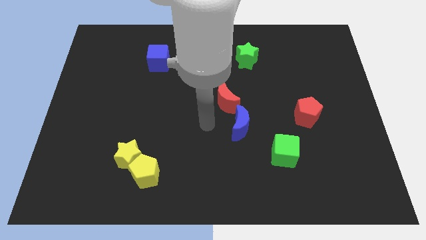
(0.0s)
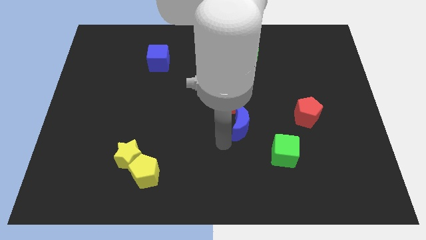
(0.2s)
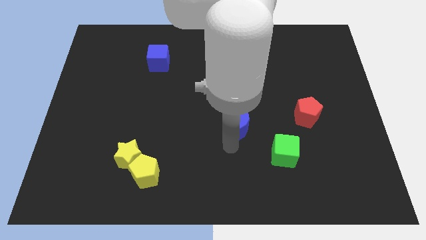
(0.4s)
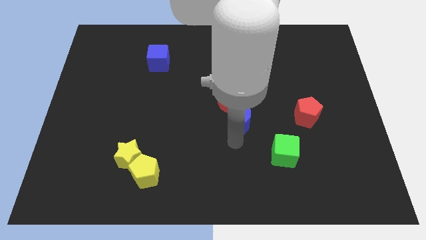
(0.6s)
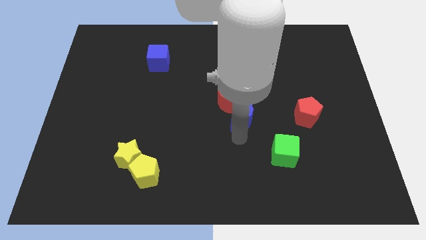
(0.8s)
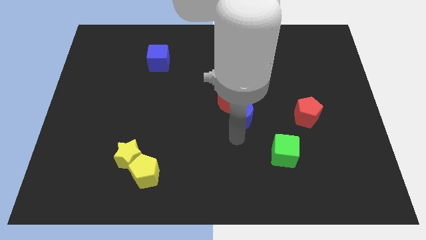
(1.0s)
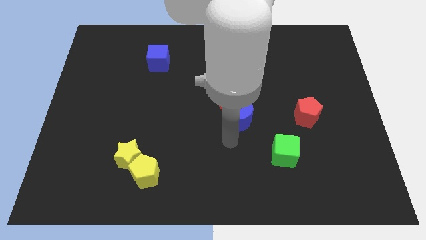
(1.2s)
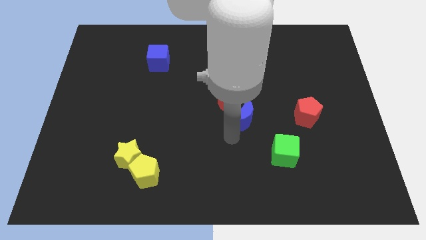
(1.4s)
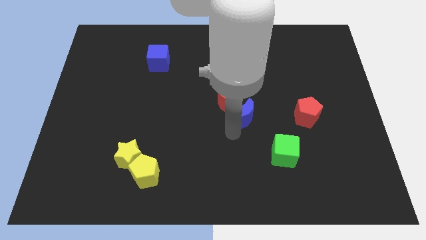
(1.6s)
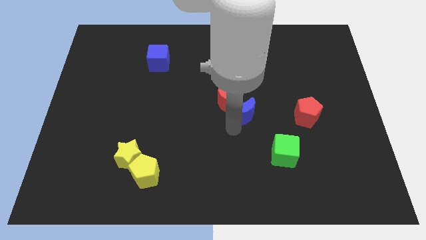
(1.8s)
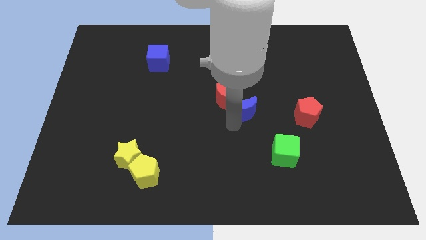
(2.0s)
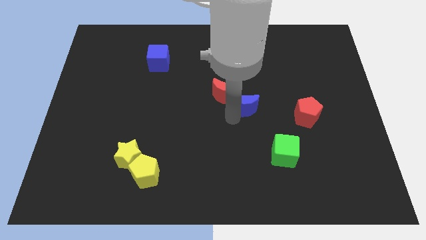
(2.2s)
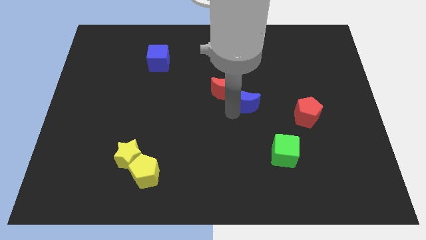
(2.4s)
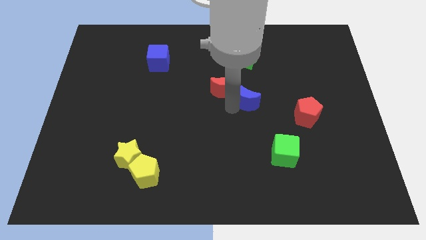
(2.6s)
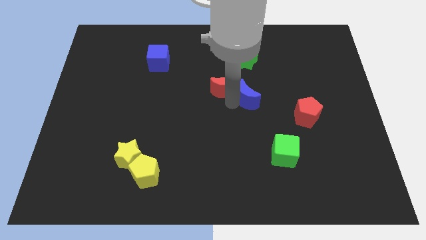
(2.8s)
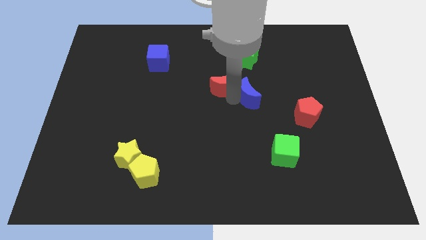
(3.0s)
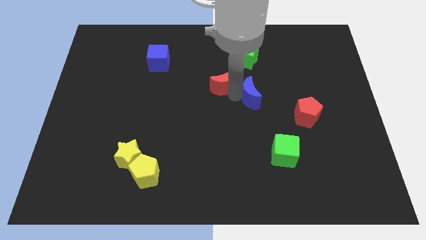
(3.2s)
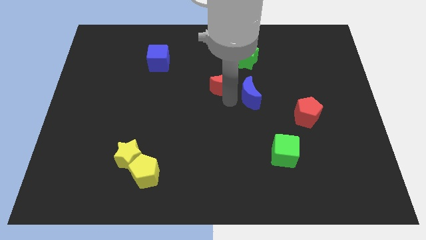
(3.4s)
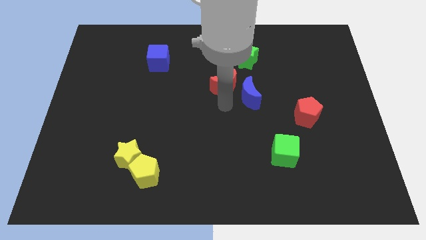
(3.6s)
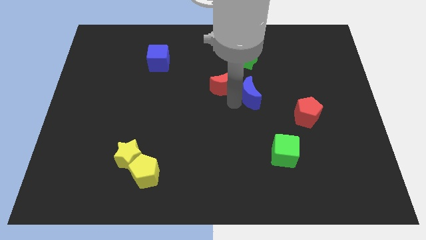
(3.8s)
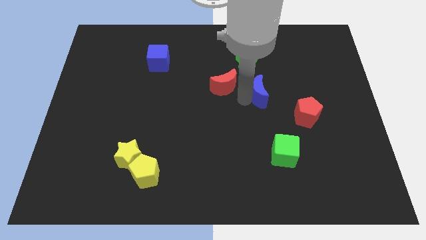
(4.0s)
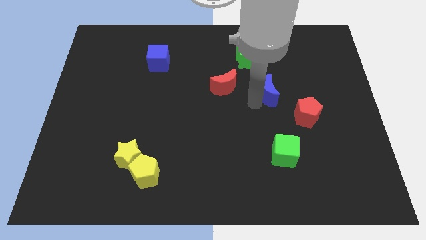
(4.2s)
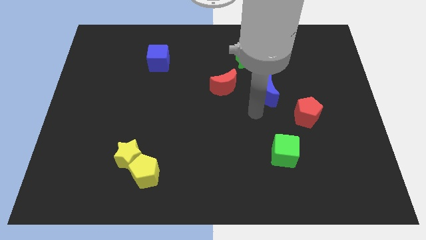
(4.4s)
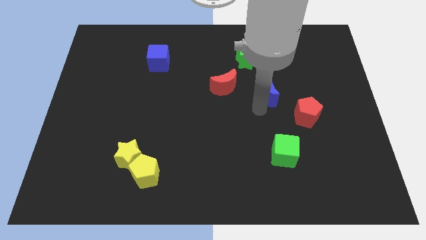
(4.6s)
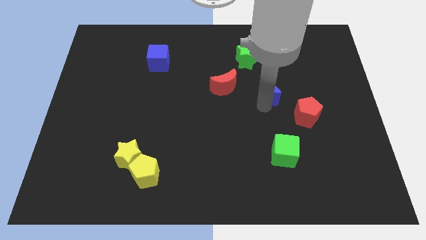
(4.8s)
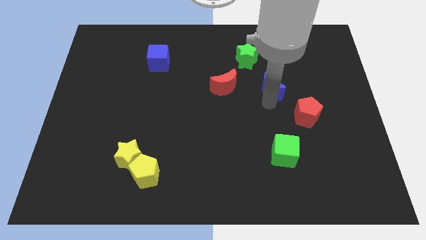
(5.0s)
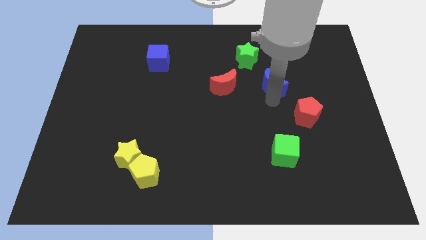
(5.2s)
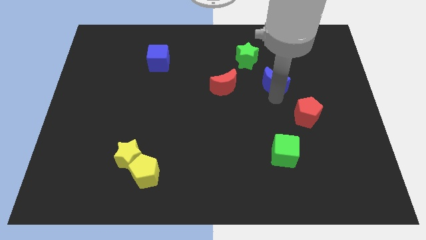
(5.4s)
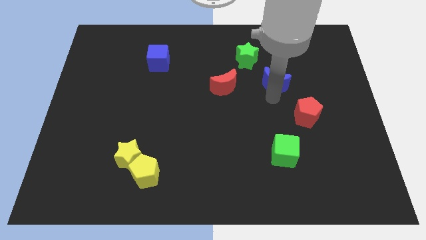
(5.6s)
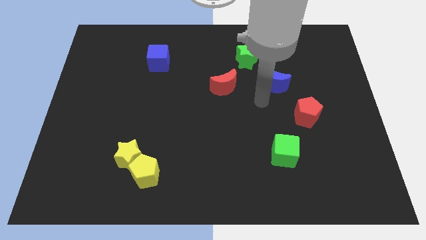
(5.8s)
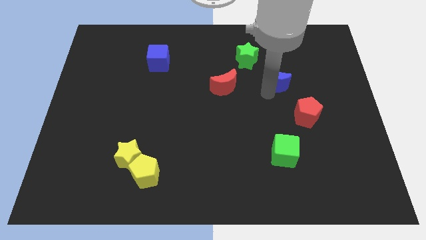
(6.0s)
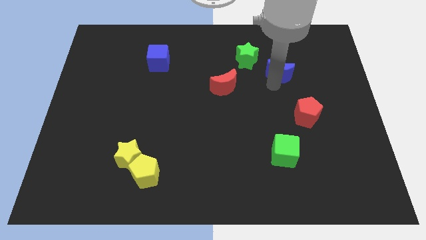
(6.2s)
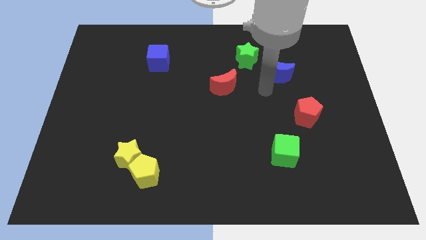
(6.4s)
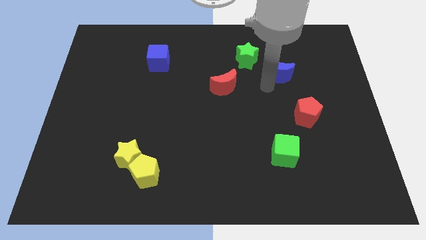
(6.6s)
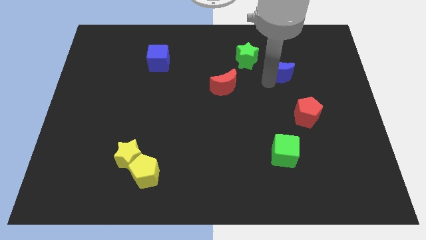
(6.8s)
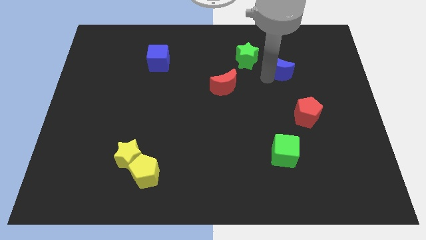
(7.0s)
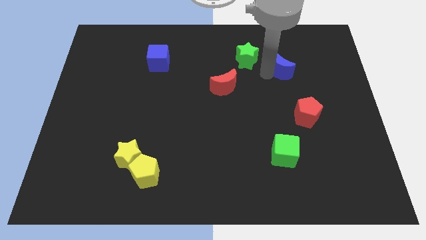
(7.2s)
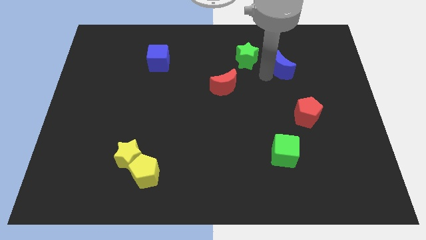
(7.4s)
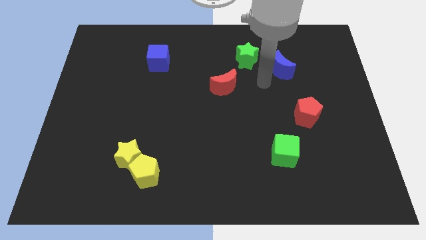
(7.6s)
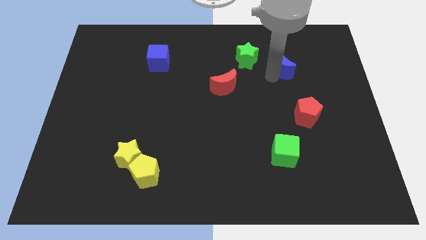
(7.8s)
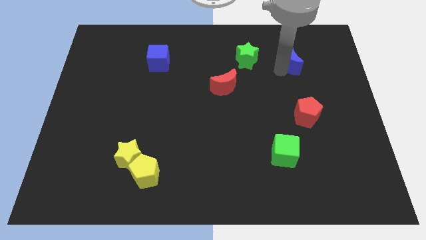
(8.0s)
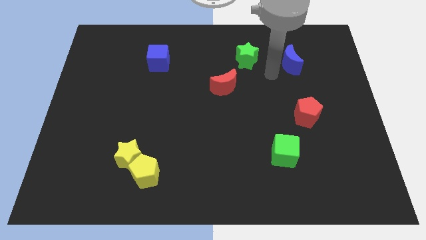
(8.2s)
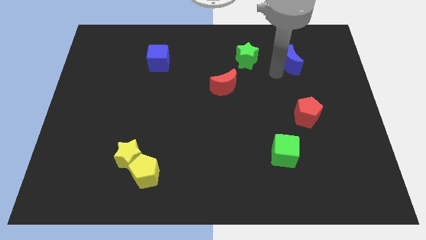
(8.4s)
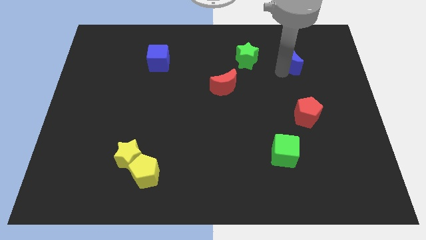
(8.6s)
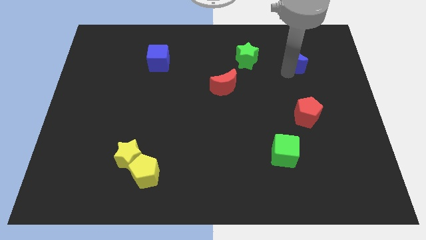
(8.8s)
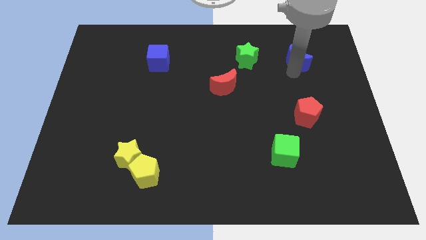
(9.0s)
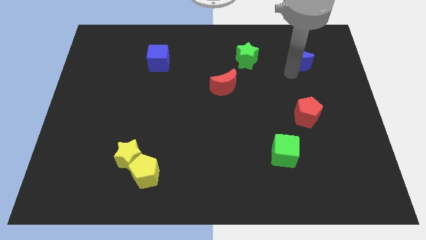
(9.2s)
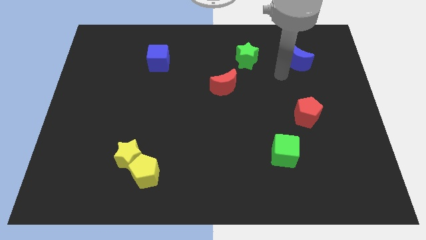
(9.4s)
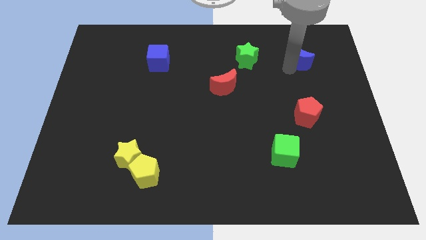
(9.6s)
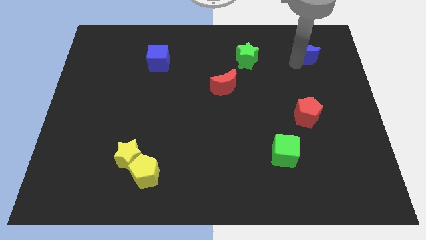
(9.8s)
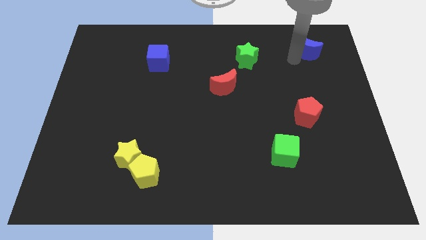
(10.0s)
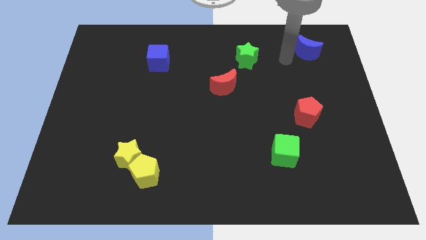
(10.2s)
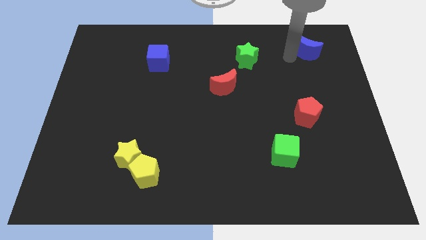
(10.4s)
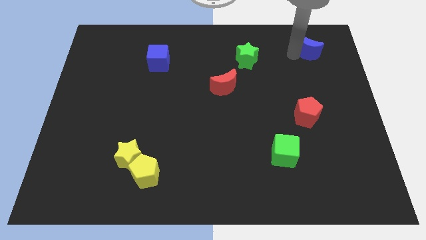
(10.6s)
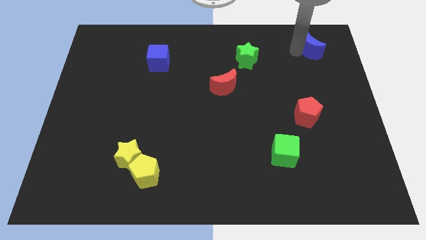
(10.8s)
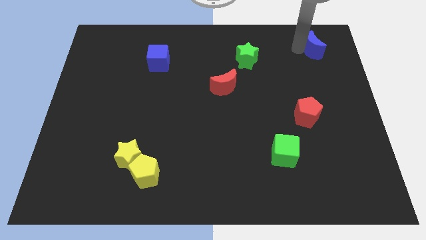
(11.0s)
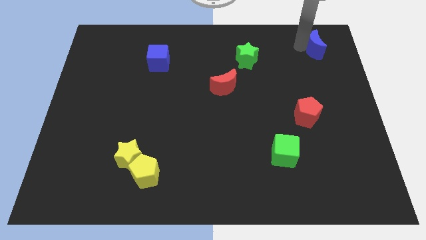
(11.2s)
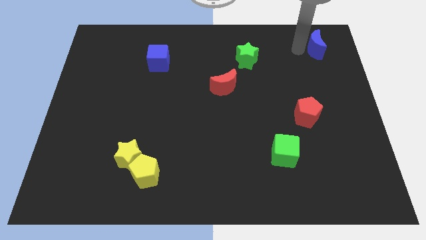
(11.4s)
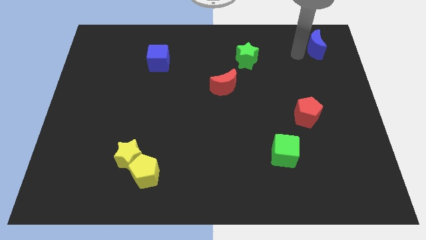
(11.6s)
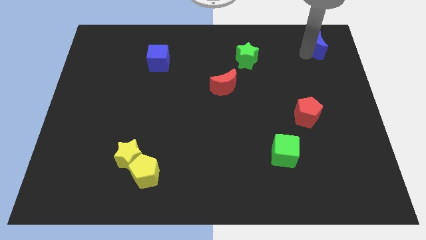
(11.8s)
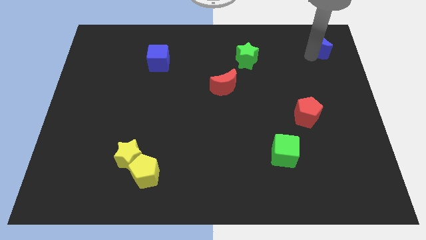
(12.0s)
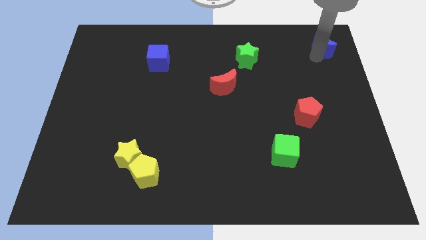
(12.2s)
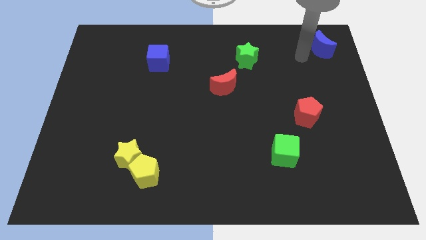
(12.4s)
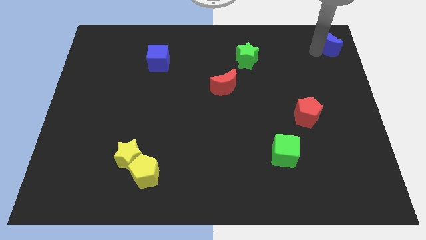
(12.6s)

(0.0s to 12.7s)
put the blue moon to the upper right corner

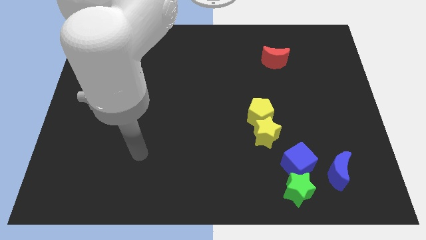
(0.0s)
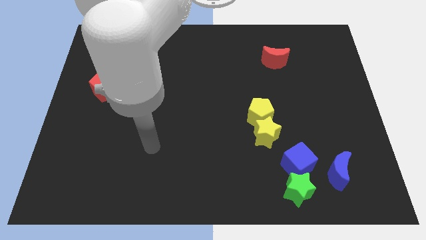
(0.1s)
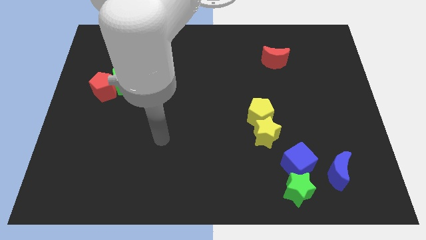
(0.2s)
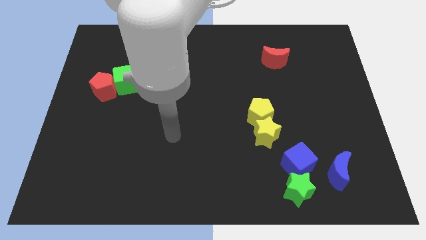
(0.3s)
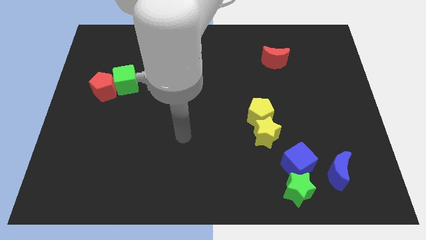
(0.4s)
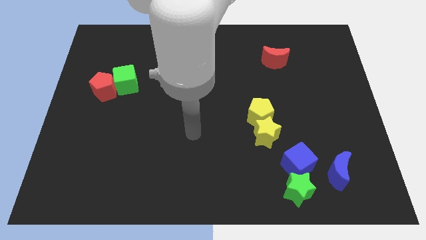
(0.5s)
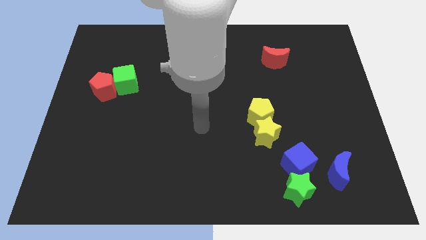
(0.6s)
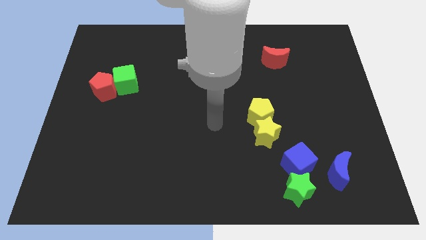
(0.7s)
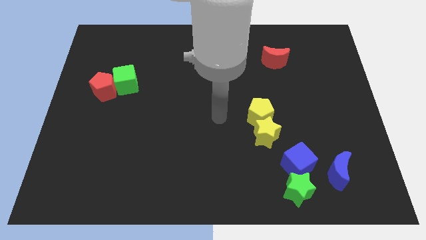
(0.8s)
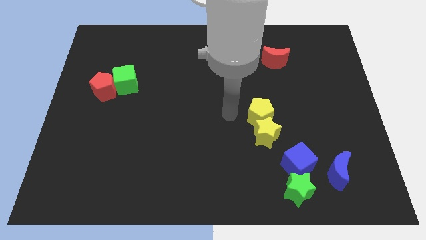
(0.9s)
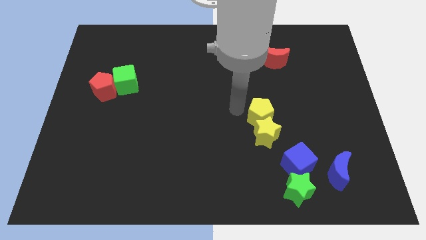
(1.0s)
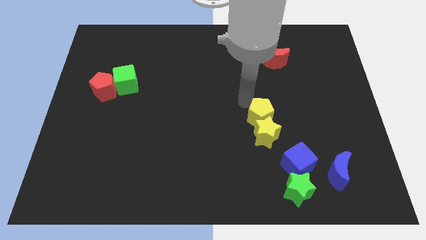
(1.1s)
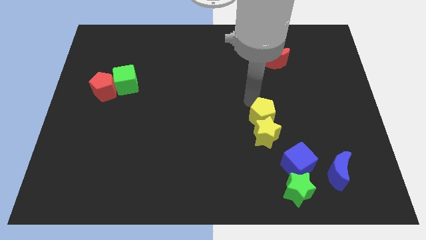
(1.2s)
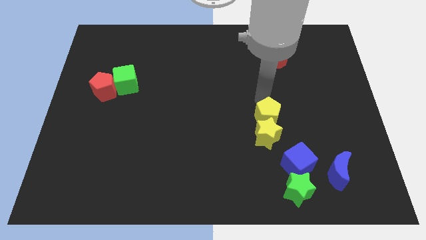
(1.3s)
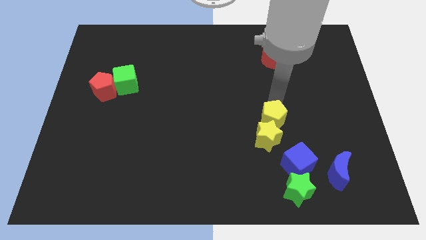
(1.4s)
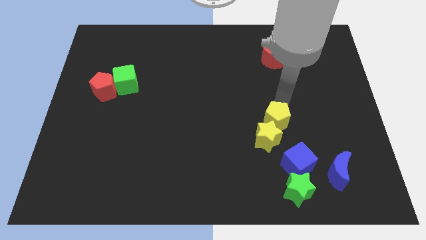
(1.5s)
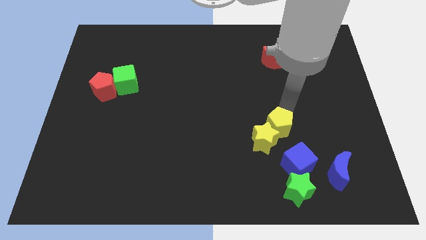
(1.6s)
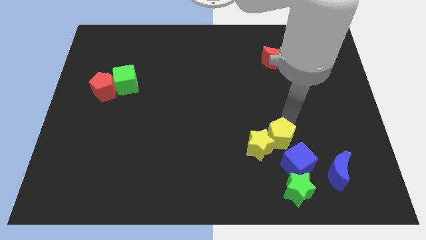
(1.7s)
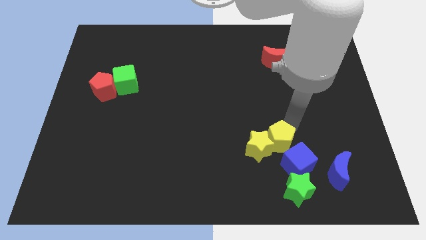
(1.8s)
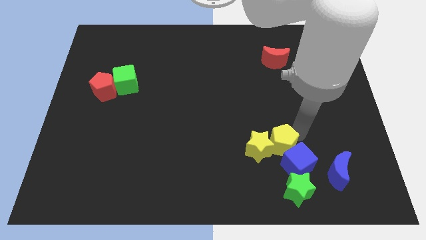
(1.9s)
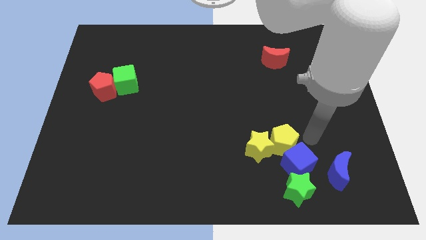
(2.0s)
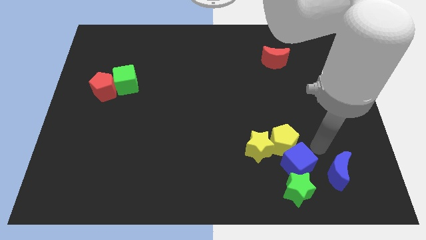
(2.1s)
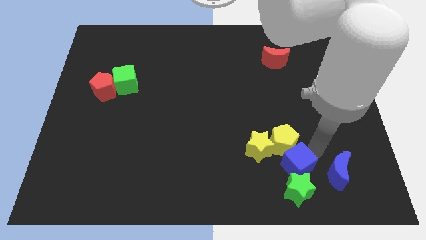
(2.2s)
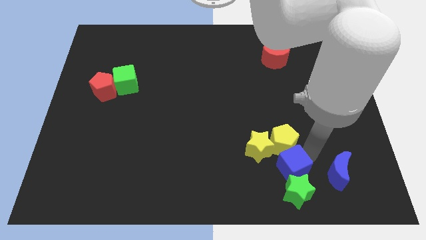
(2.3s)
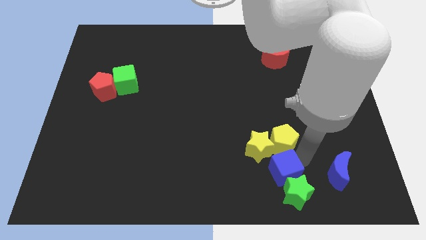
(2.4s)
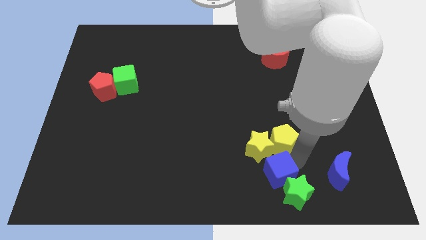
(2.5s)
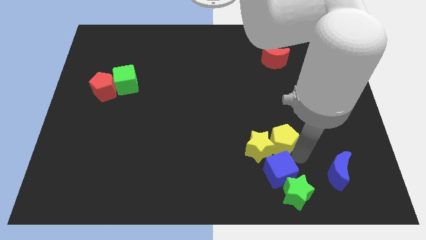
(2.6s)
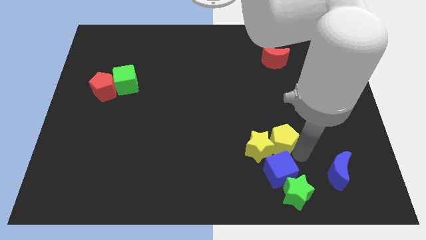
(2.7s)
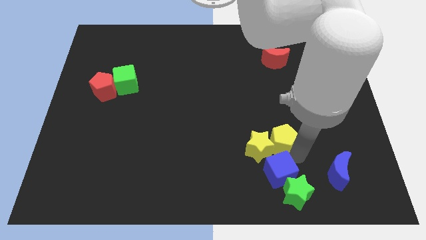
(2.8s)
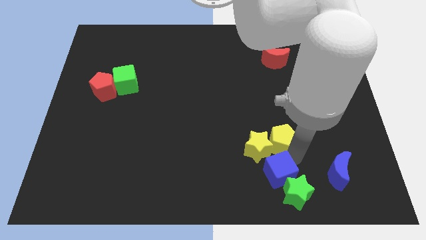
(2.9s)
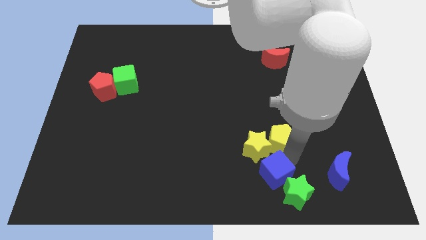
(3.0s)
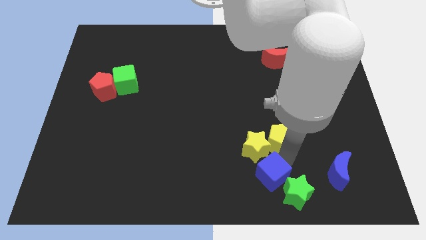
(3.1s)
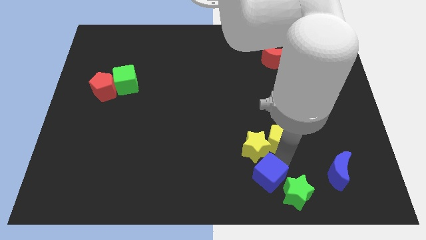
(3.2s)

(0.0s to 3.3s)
slide the blue cube to the bottom side
